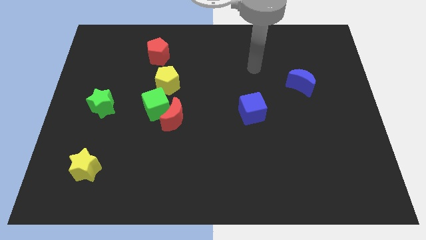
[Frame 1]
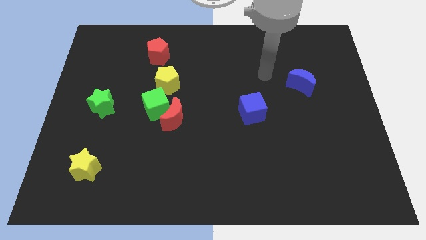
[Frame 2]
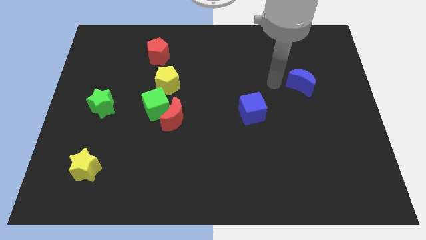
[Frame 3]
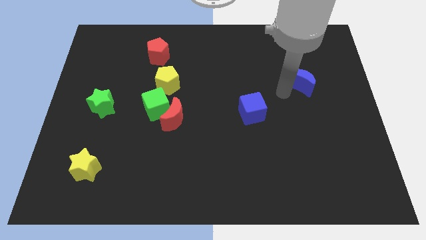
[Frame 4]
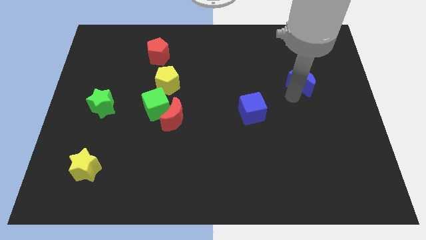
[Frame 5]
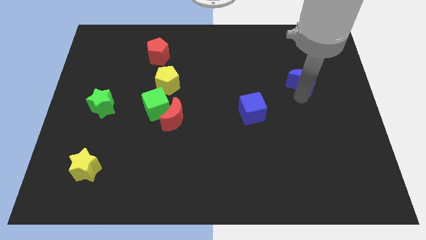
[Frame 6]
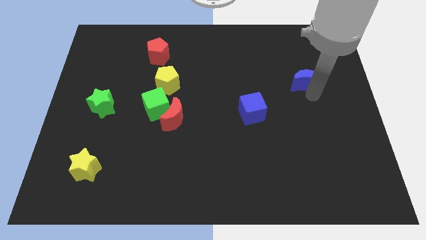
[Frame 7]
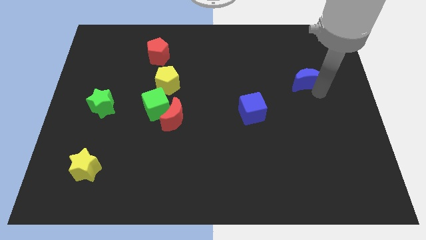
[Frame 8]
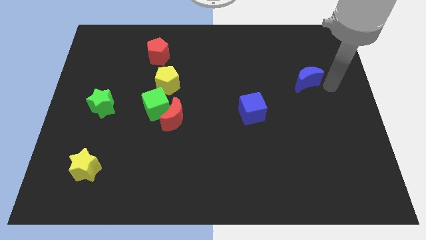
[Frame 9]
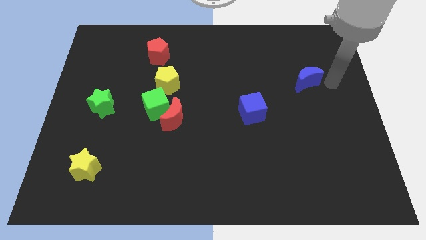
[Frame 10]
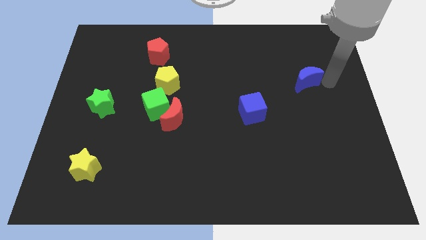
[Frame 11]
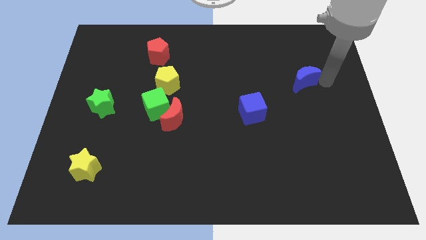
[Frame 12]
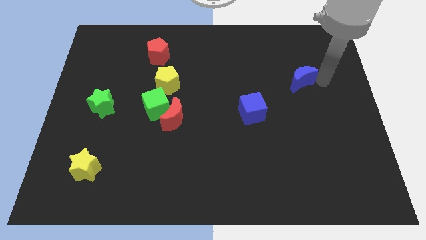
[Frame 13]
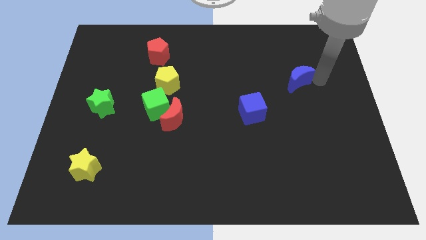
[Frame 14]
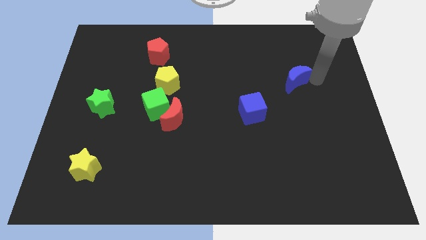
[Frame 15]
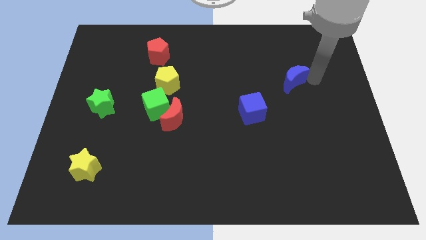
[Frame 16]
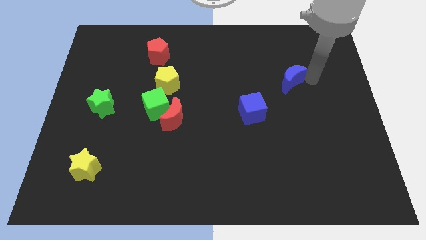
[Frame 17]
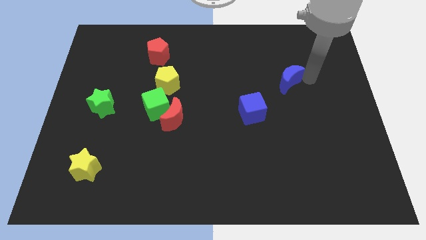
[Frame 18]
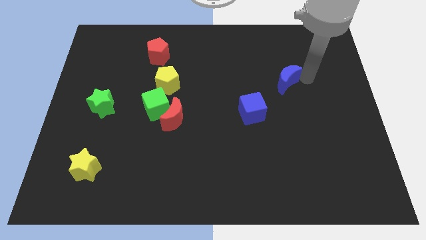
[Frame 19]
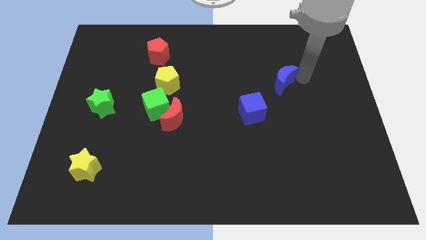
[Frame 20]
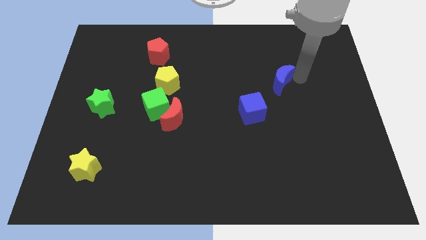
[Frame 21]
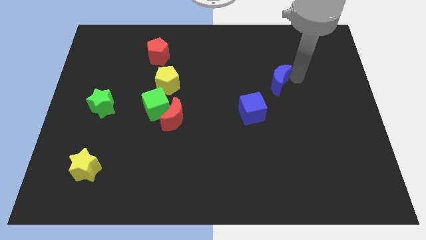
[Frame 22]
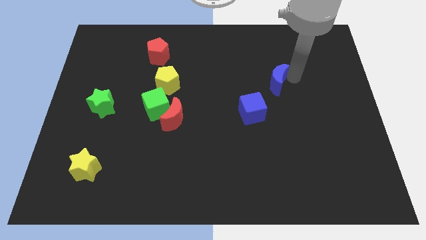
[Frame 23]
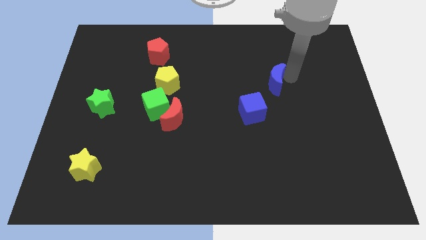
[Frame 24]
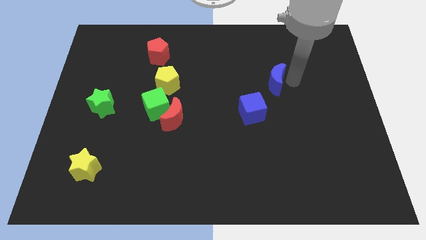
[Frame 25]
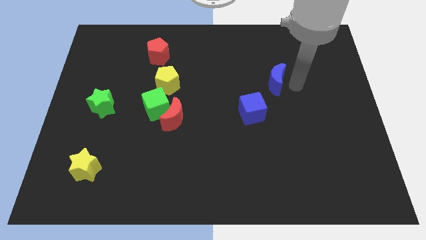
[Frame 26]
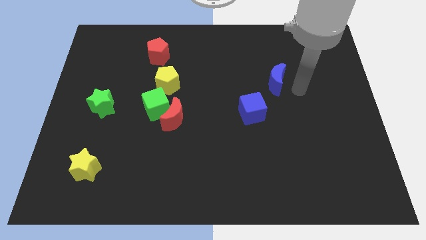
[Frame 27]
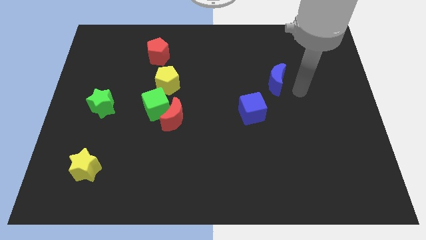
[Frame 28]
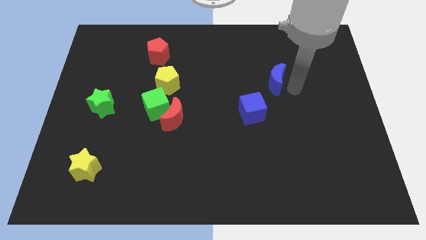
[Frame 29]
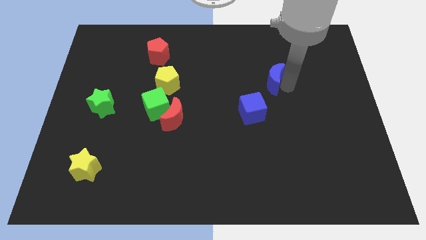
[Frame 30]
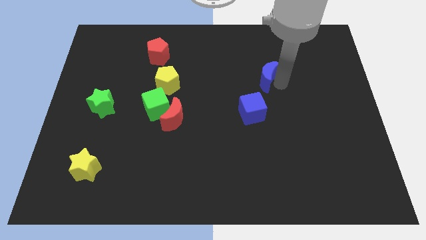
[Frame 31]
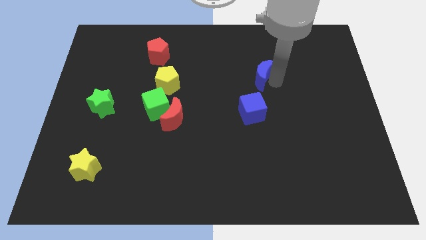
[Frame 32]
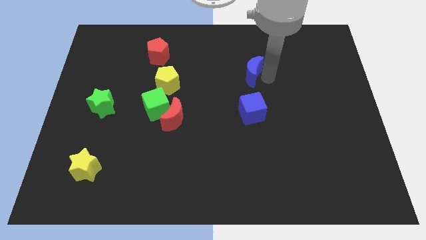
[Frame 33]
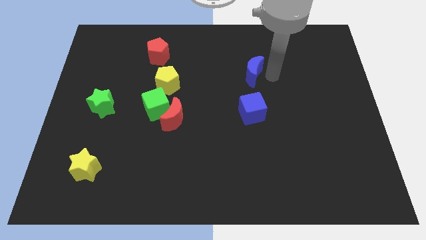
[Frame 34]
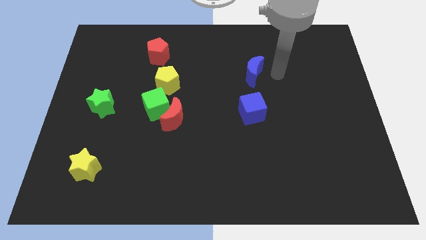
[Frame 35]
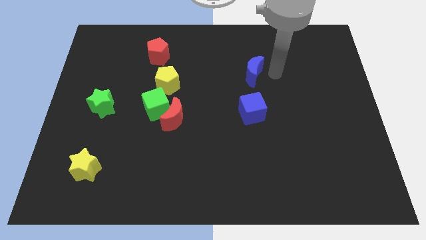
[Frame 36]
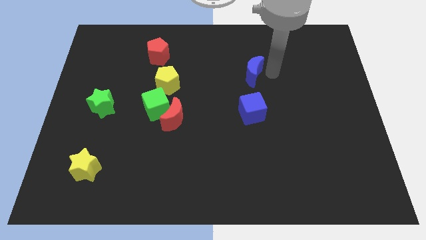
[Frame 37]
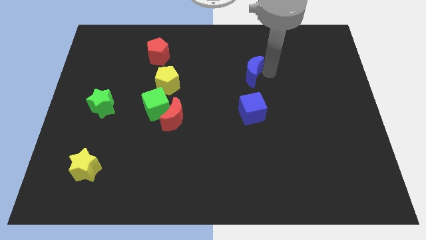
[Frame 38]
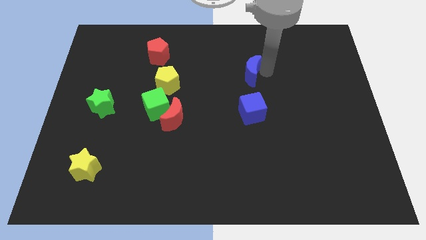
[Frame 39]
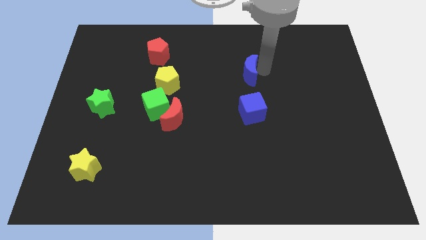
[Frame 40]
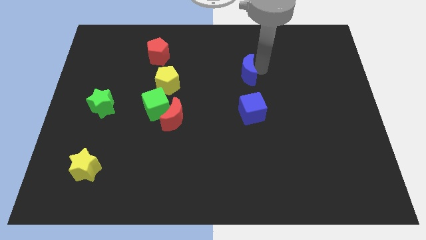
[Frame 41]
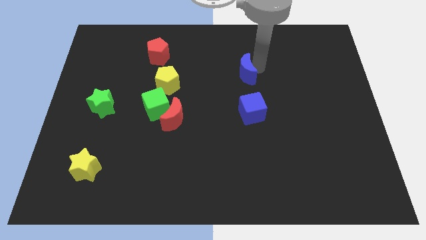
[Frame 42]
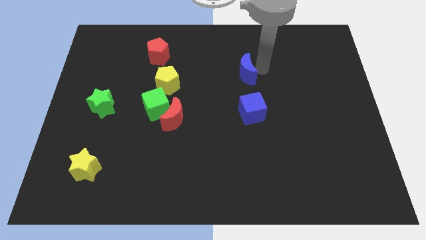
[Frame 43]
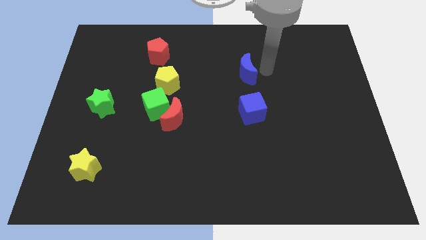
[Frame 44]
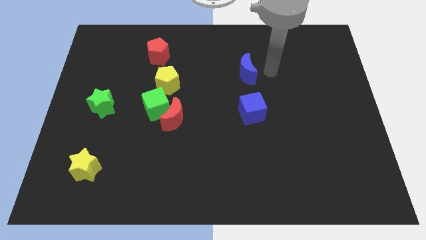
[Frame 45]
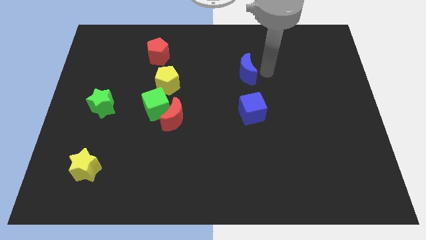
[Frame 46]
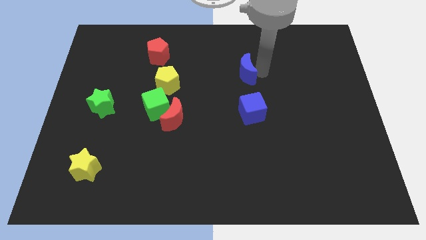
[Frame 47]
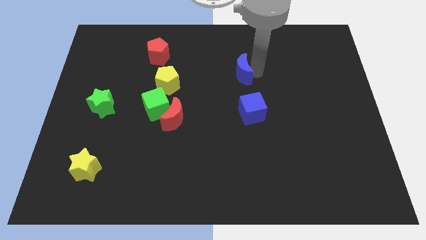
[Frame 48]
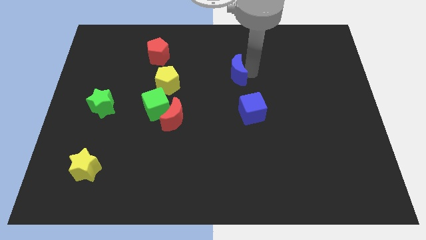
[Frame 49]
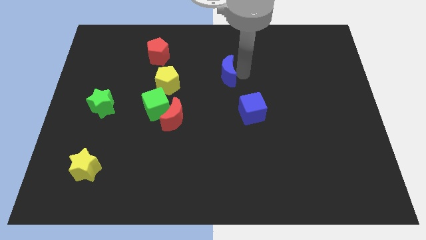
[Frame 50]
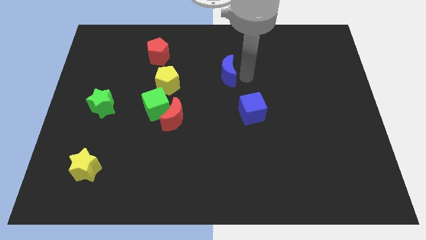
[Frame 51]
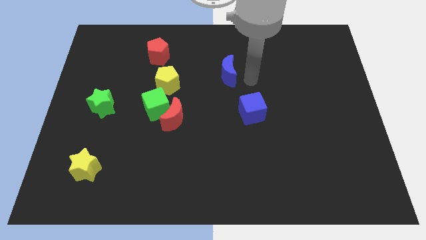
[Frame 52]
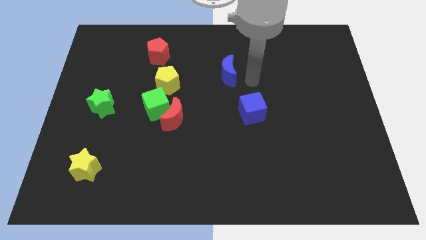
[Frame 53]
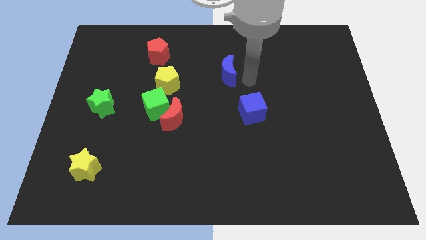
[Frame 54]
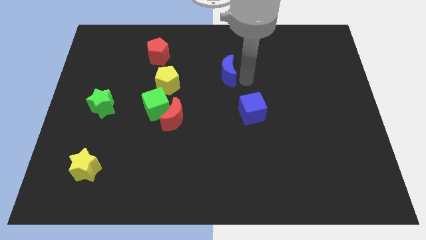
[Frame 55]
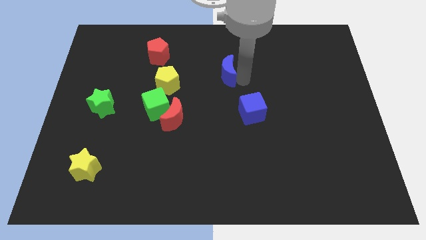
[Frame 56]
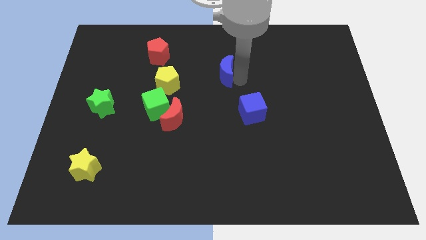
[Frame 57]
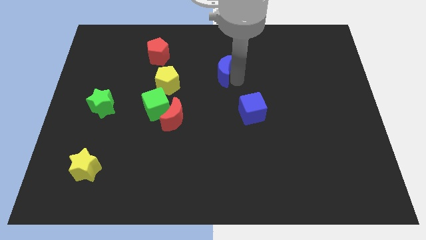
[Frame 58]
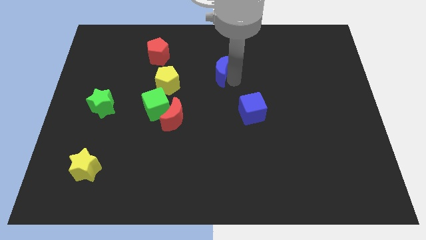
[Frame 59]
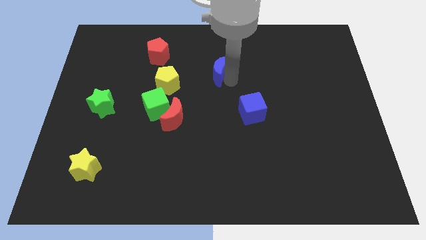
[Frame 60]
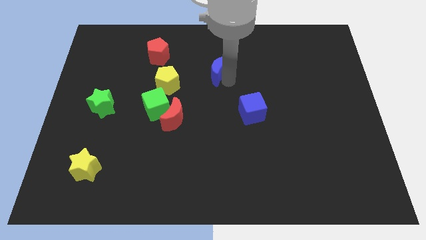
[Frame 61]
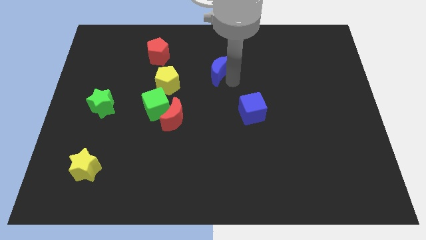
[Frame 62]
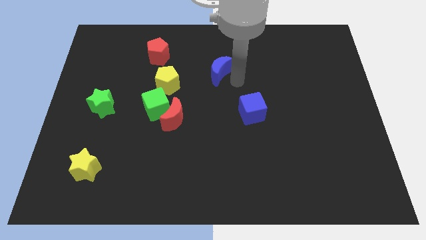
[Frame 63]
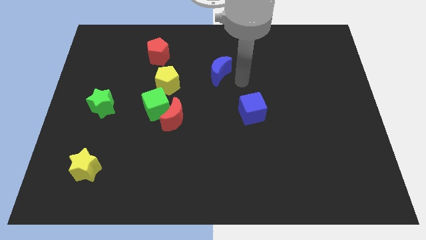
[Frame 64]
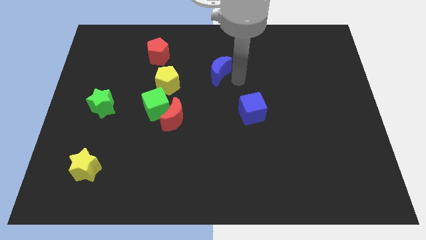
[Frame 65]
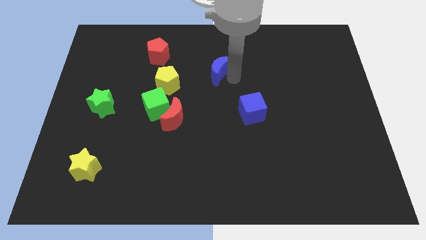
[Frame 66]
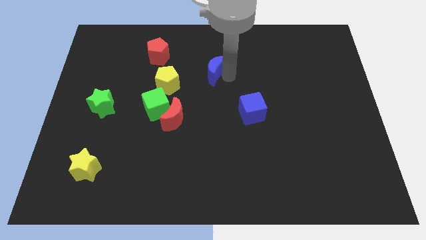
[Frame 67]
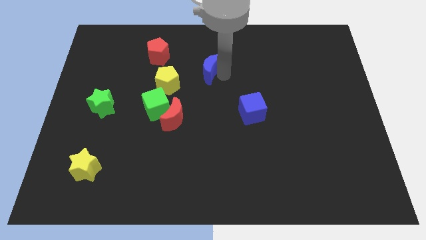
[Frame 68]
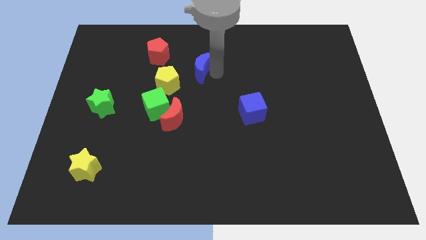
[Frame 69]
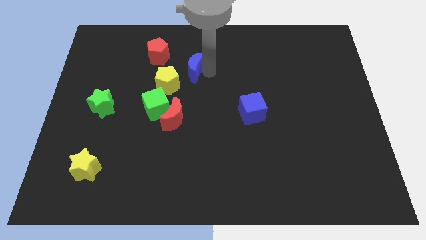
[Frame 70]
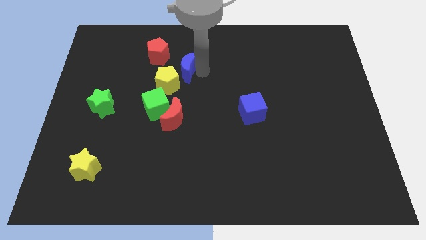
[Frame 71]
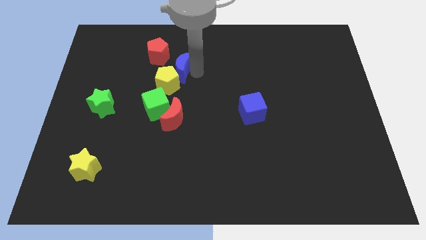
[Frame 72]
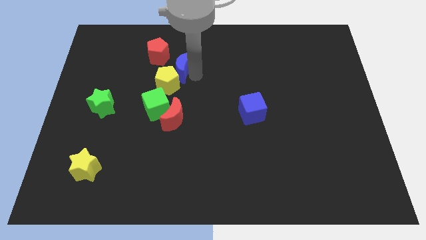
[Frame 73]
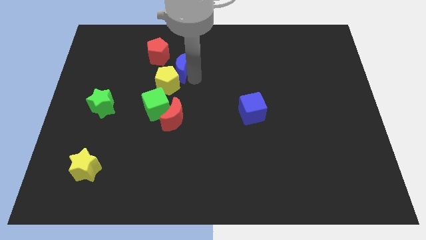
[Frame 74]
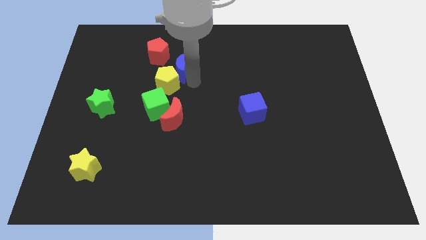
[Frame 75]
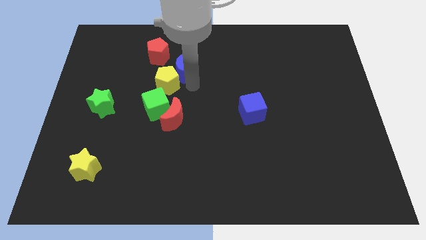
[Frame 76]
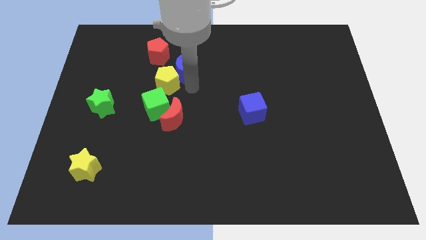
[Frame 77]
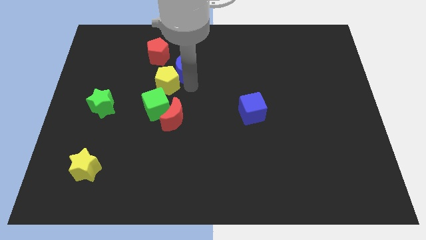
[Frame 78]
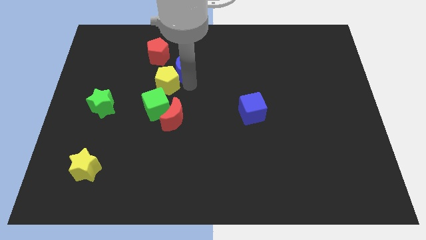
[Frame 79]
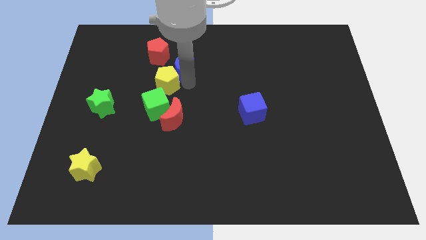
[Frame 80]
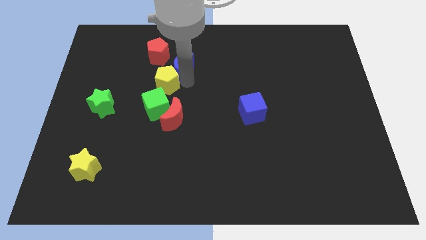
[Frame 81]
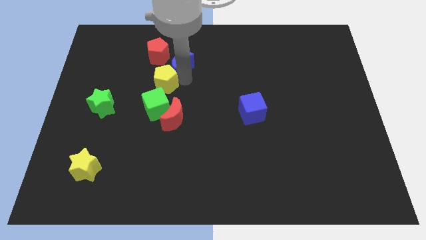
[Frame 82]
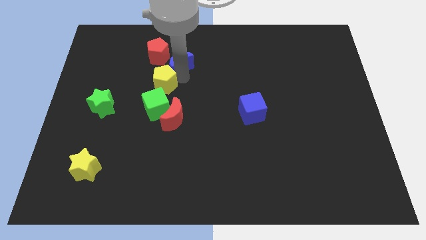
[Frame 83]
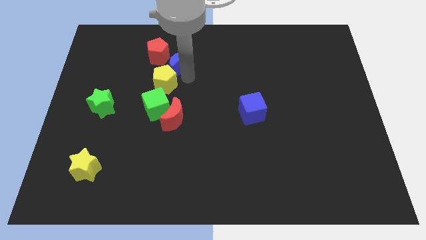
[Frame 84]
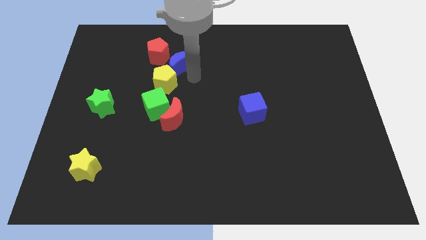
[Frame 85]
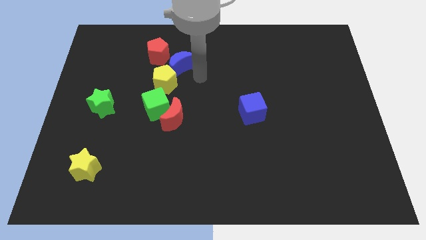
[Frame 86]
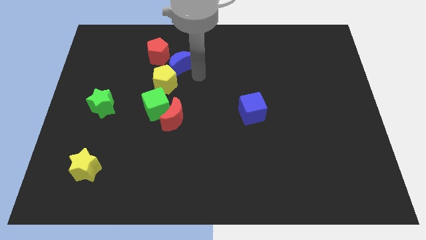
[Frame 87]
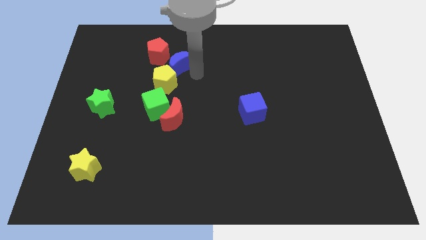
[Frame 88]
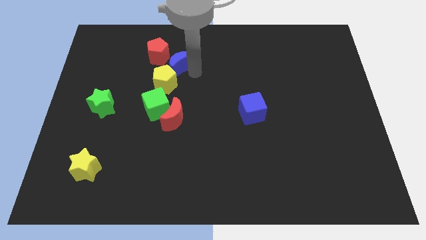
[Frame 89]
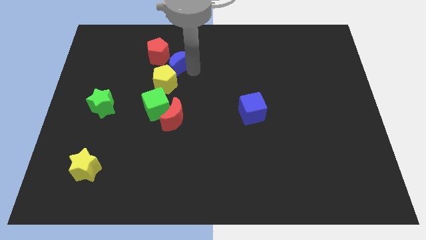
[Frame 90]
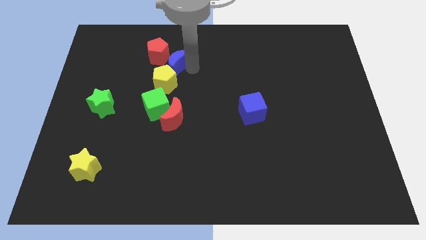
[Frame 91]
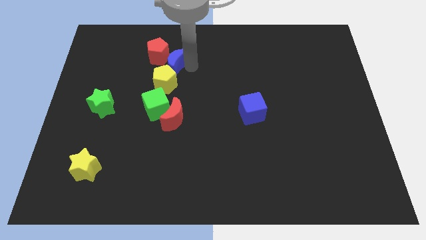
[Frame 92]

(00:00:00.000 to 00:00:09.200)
put the blue moon next to the red pentagon
